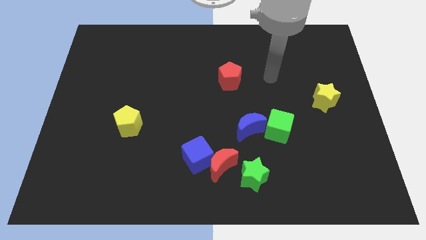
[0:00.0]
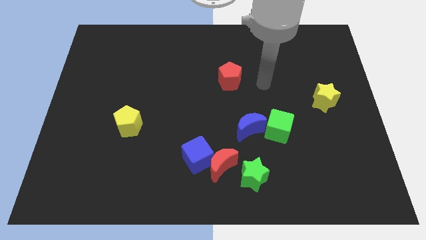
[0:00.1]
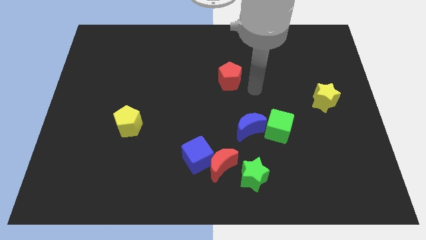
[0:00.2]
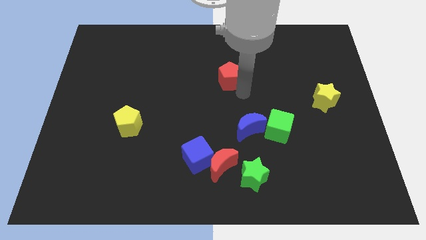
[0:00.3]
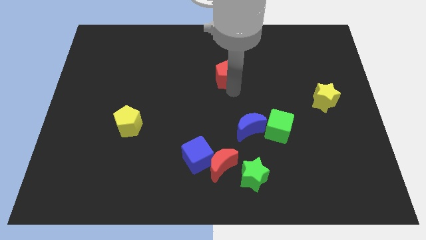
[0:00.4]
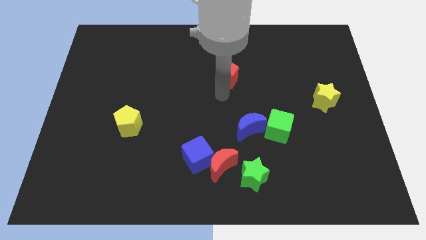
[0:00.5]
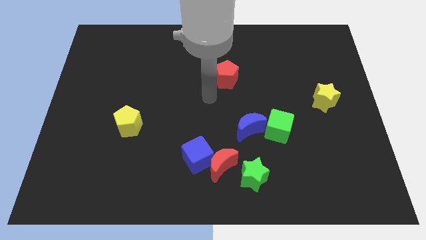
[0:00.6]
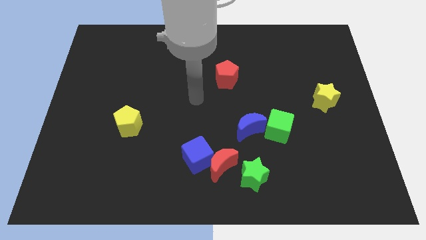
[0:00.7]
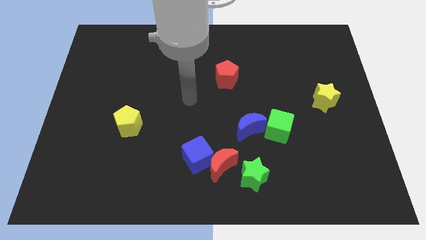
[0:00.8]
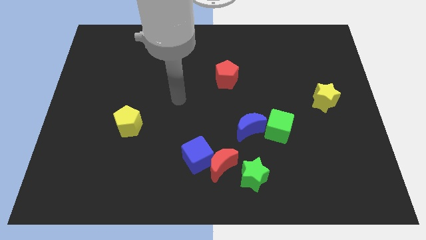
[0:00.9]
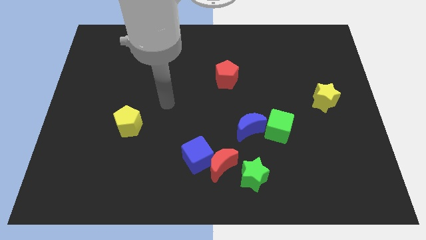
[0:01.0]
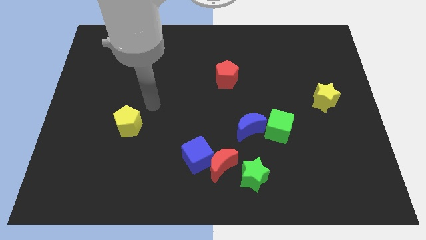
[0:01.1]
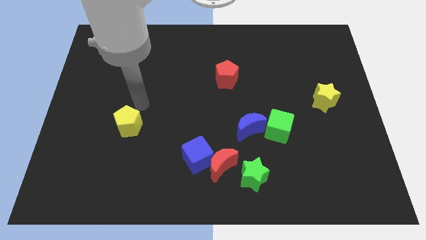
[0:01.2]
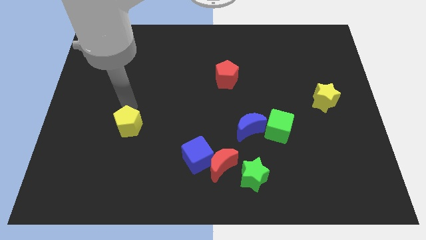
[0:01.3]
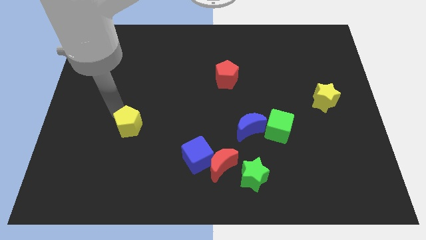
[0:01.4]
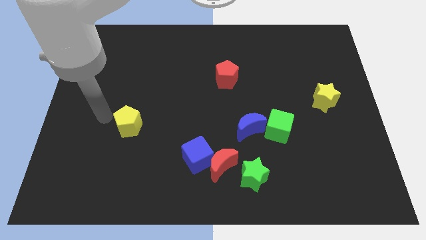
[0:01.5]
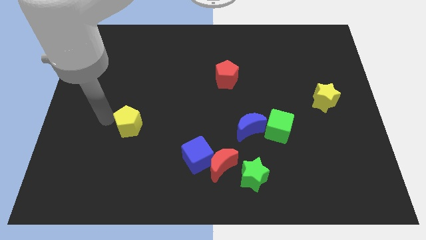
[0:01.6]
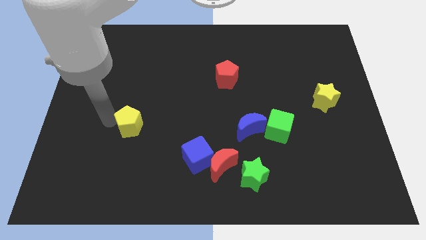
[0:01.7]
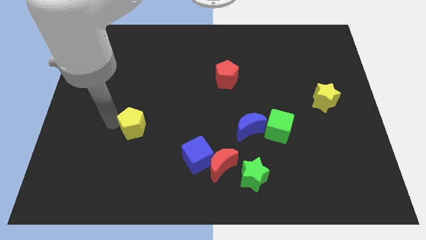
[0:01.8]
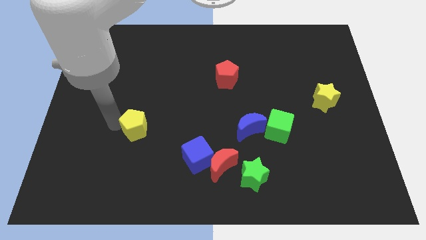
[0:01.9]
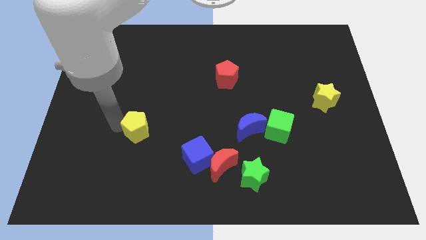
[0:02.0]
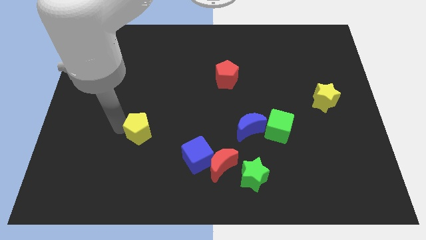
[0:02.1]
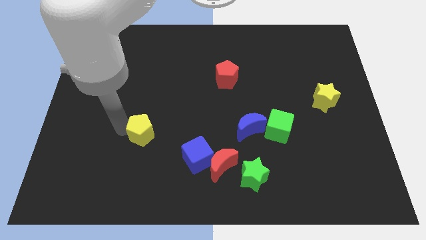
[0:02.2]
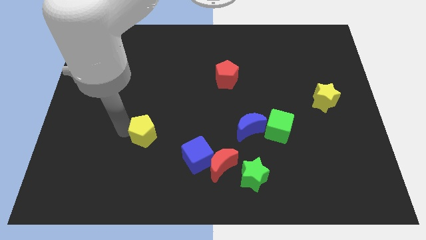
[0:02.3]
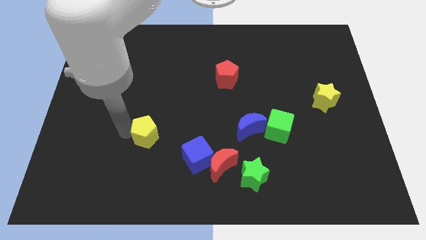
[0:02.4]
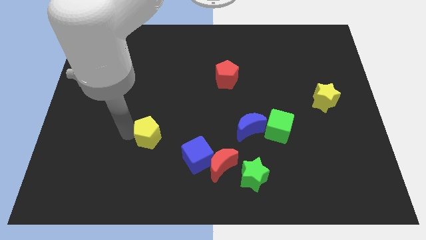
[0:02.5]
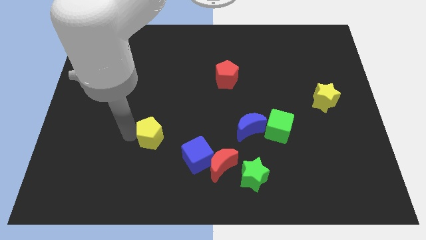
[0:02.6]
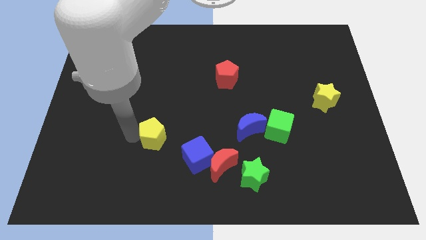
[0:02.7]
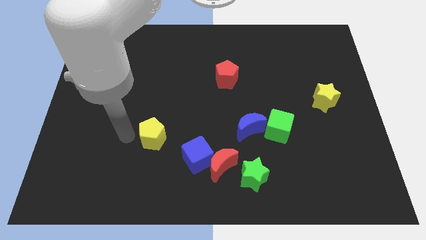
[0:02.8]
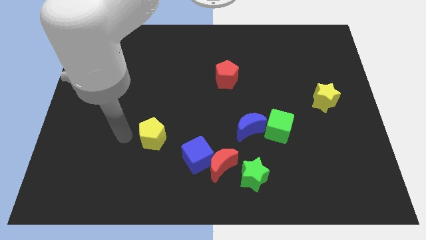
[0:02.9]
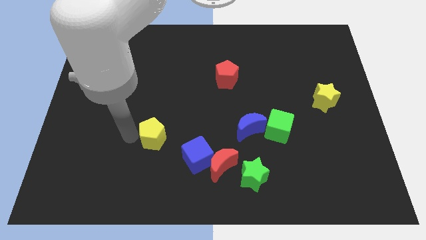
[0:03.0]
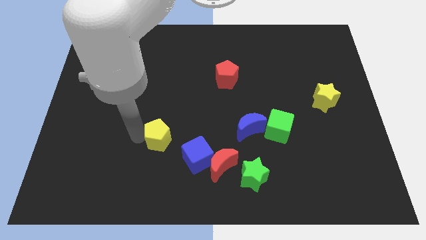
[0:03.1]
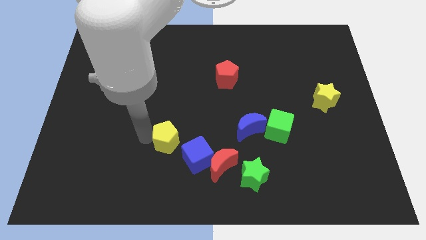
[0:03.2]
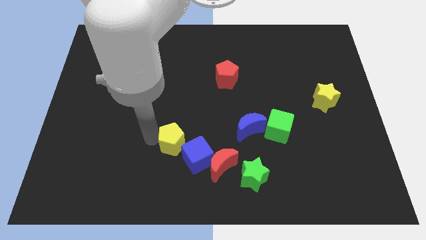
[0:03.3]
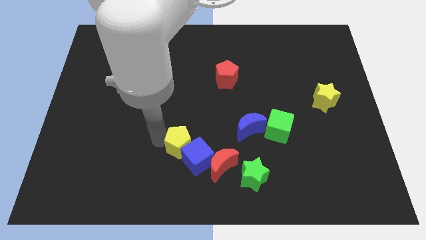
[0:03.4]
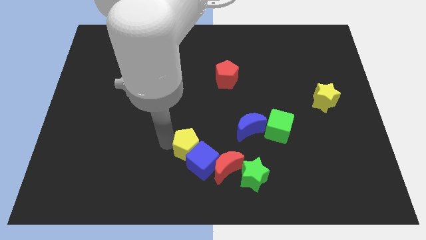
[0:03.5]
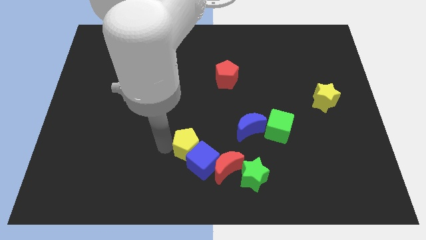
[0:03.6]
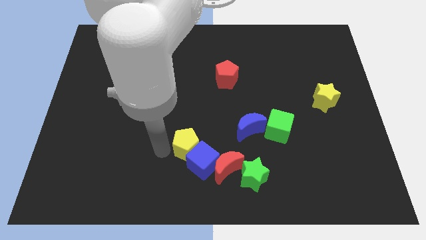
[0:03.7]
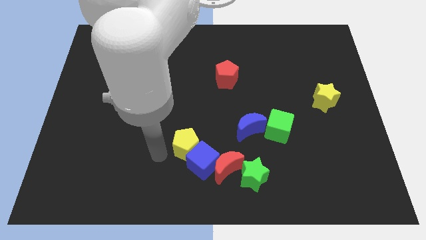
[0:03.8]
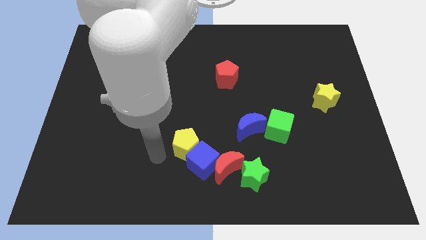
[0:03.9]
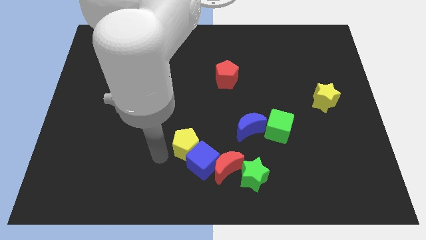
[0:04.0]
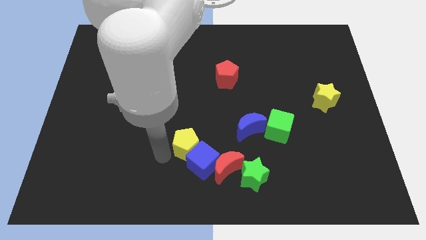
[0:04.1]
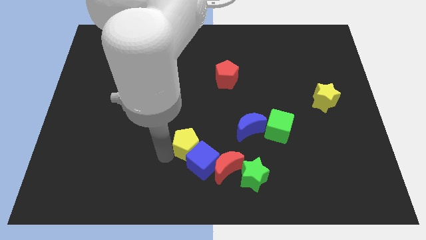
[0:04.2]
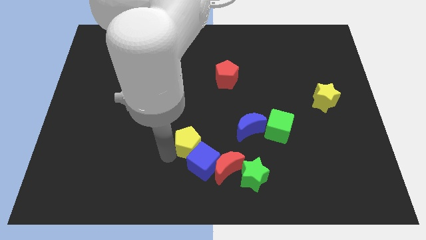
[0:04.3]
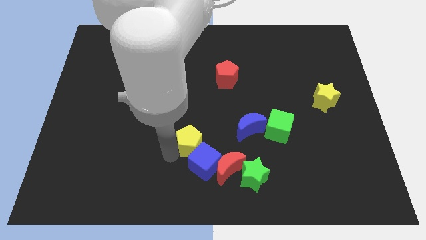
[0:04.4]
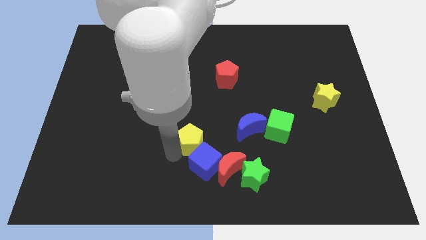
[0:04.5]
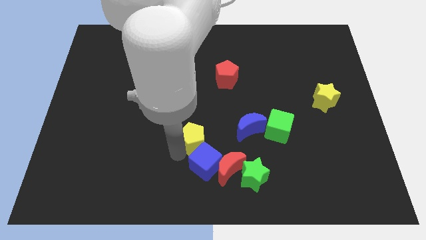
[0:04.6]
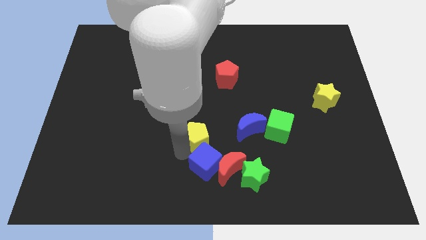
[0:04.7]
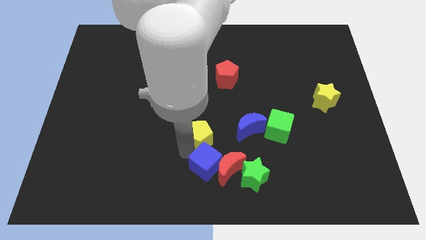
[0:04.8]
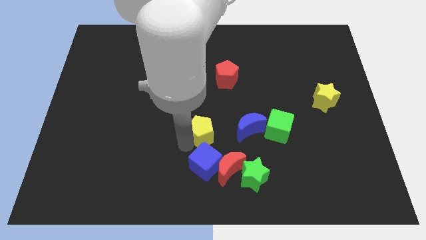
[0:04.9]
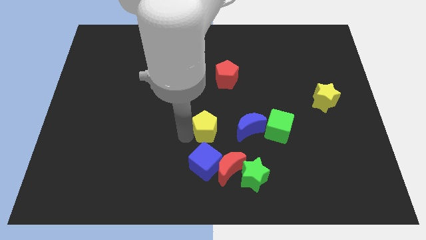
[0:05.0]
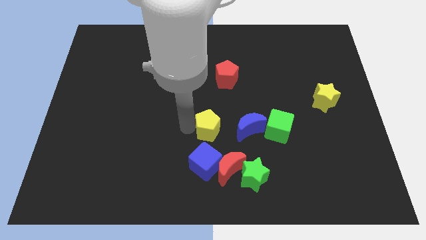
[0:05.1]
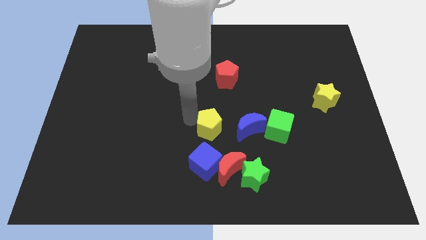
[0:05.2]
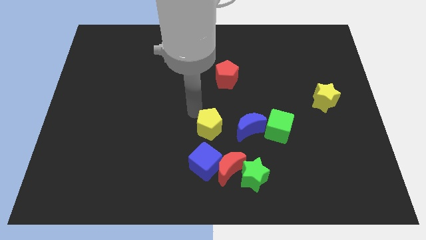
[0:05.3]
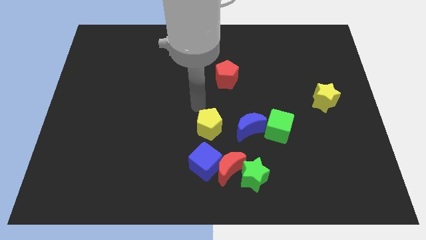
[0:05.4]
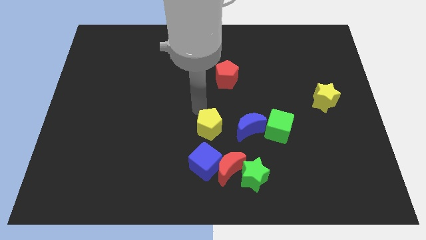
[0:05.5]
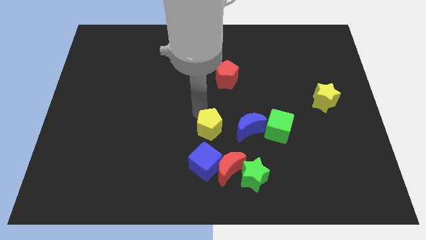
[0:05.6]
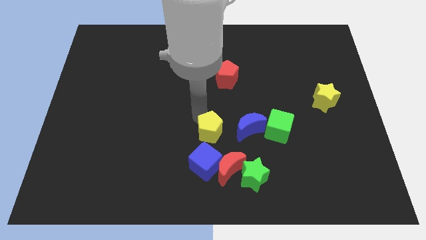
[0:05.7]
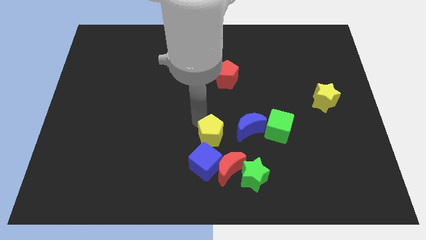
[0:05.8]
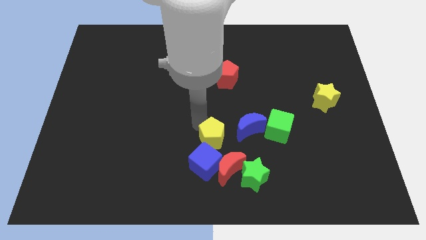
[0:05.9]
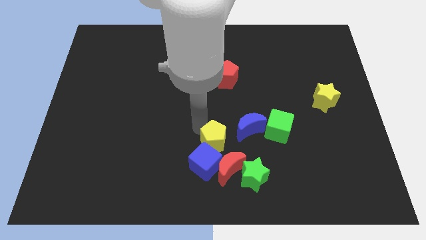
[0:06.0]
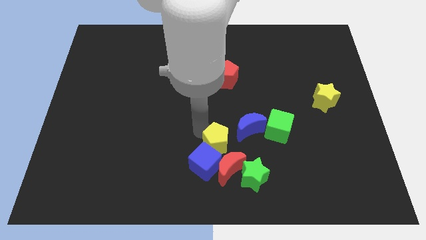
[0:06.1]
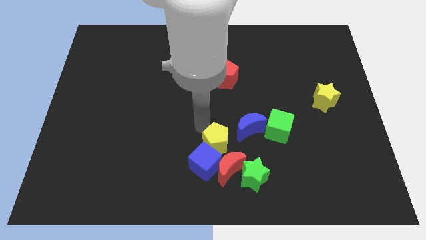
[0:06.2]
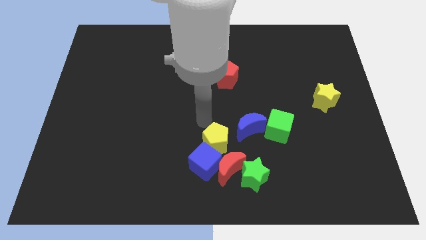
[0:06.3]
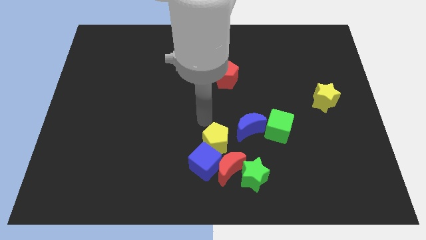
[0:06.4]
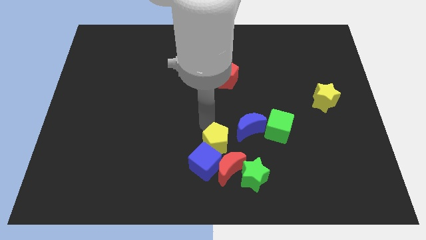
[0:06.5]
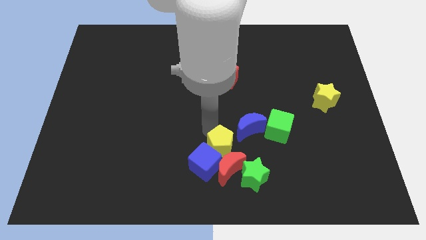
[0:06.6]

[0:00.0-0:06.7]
put the yellow pentagon close to the red moon
